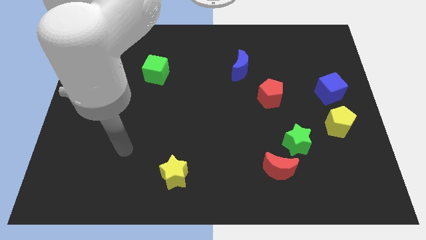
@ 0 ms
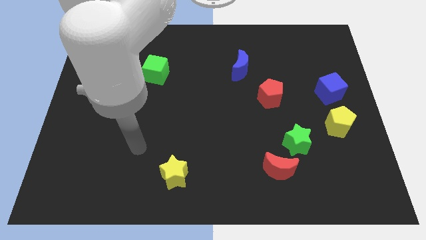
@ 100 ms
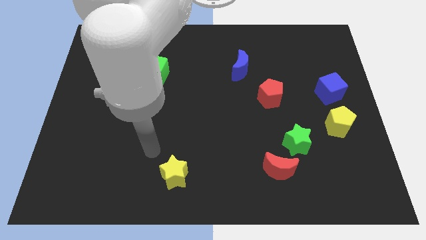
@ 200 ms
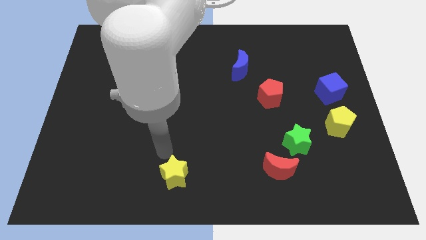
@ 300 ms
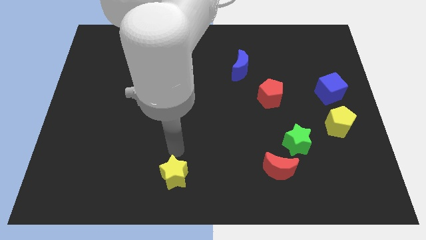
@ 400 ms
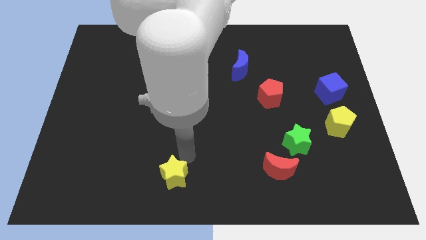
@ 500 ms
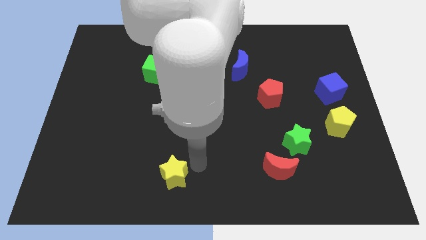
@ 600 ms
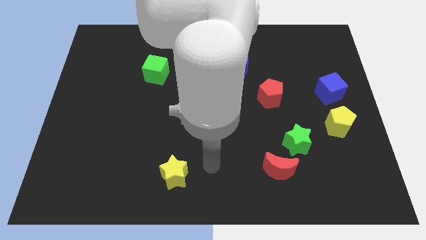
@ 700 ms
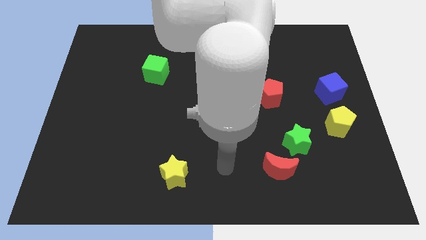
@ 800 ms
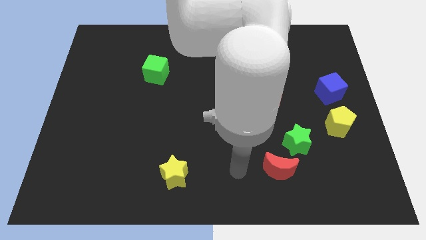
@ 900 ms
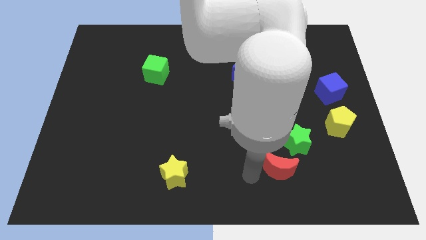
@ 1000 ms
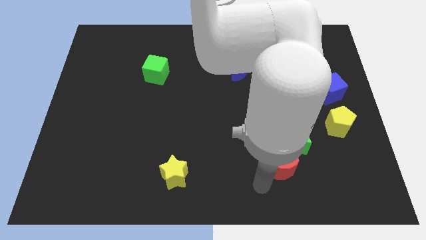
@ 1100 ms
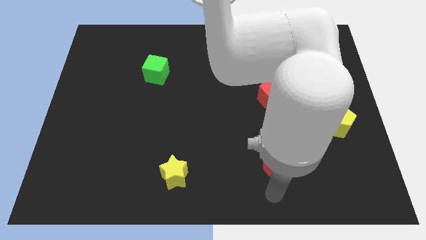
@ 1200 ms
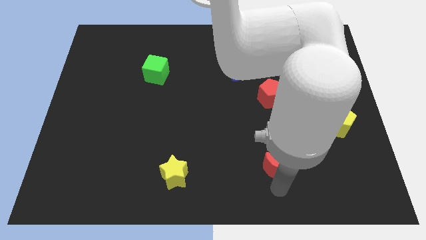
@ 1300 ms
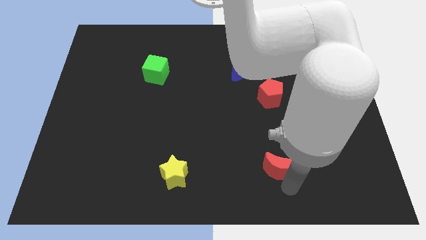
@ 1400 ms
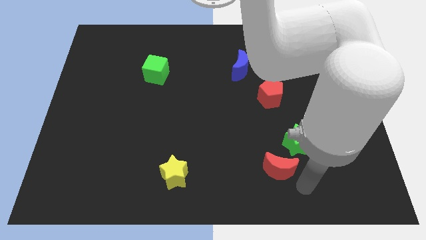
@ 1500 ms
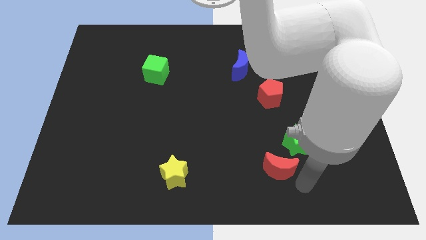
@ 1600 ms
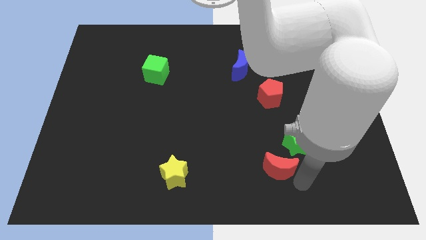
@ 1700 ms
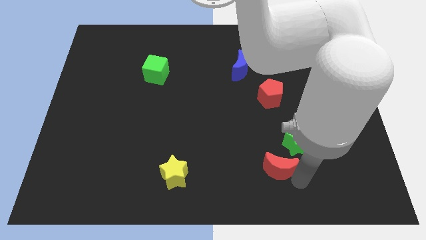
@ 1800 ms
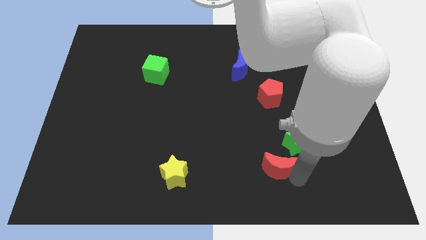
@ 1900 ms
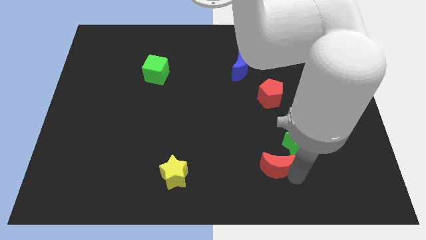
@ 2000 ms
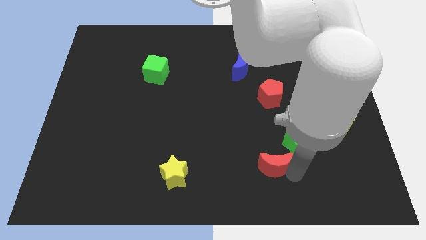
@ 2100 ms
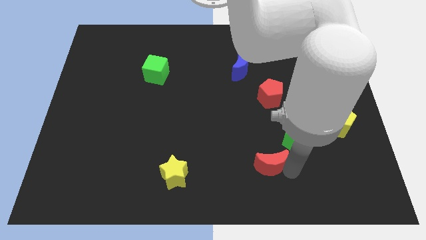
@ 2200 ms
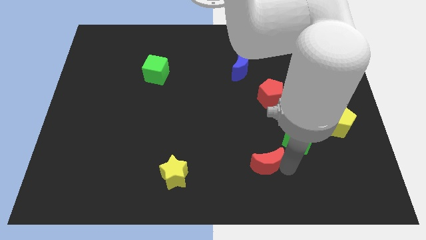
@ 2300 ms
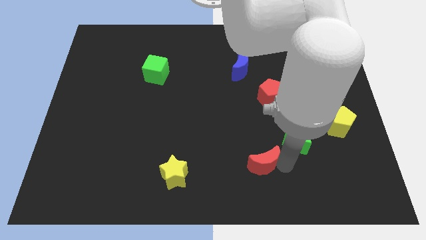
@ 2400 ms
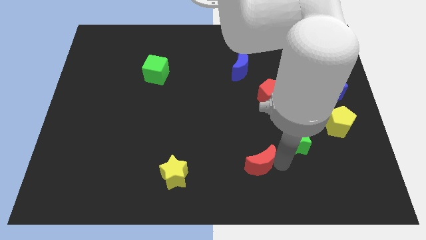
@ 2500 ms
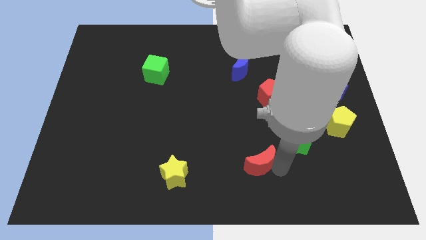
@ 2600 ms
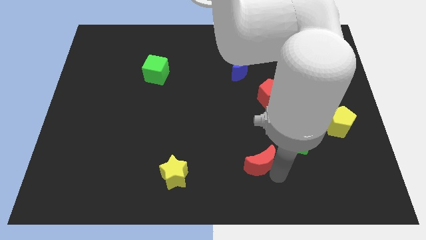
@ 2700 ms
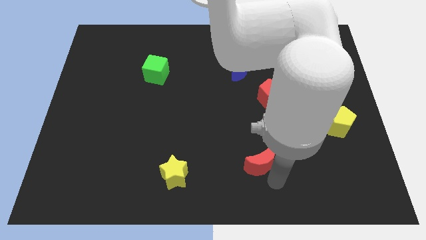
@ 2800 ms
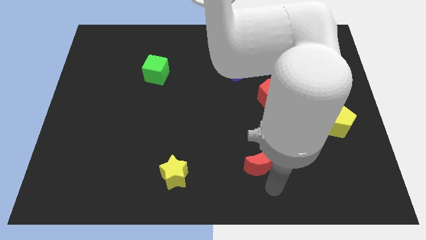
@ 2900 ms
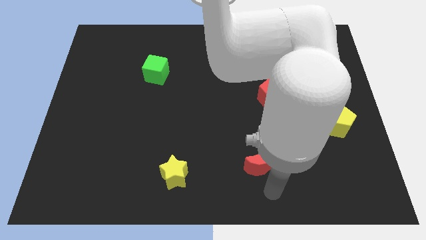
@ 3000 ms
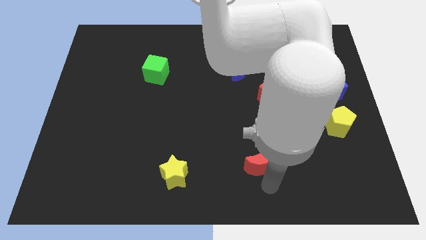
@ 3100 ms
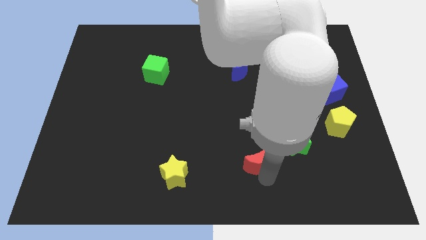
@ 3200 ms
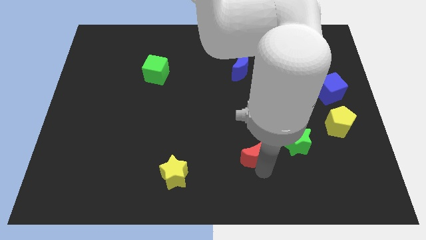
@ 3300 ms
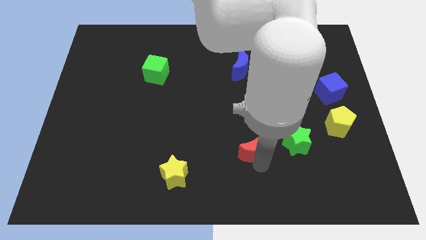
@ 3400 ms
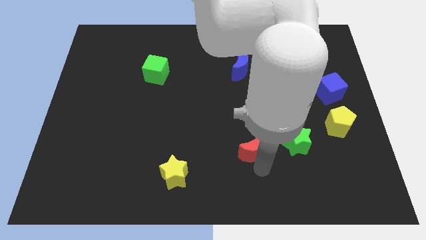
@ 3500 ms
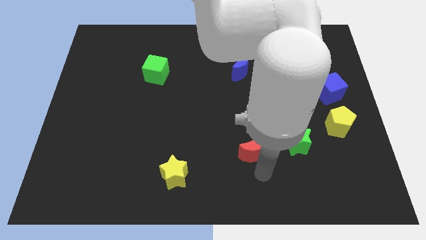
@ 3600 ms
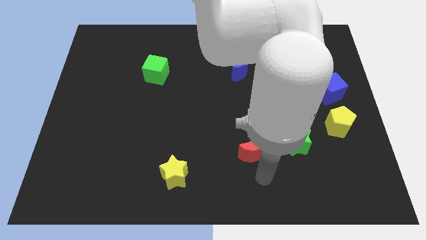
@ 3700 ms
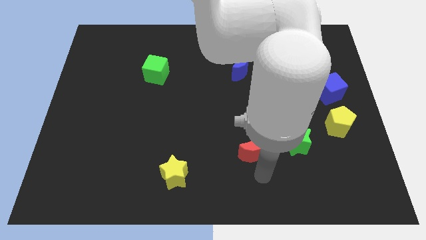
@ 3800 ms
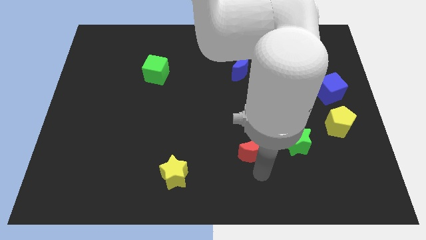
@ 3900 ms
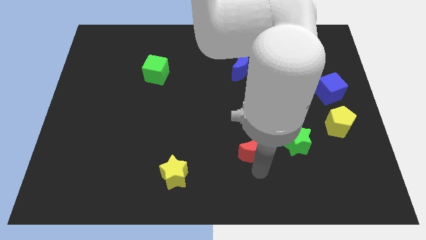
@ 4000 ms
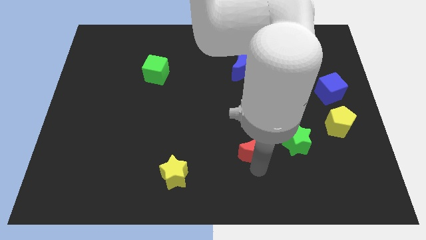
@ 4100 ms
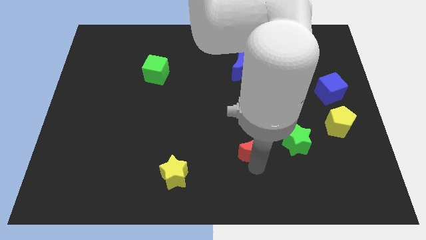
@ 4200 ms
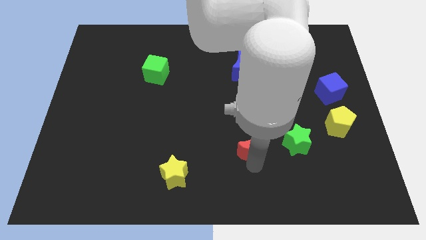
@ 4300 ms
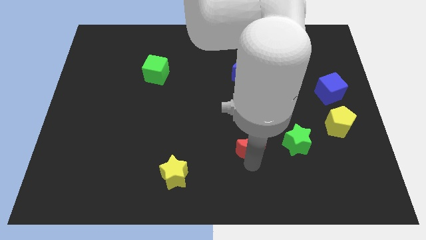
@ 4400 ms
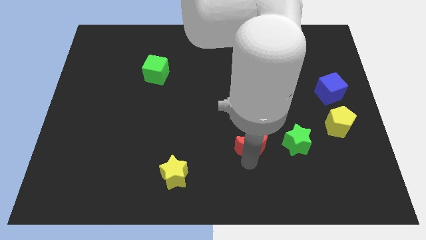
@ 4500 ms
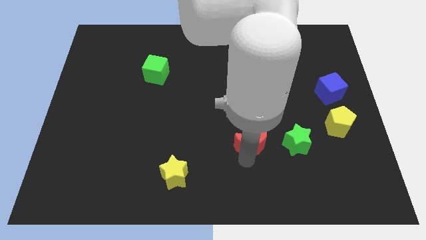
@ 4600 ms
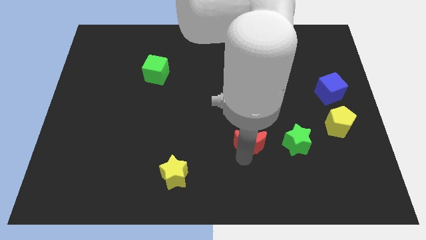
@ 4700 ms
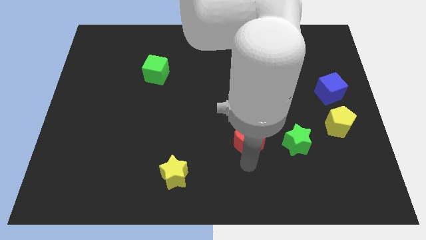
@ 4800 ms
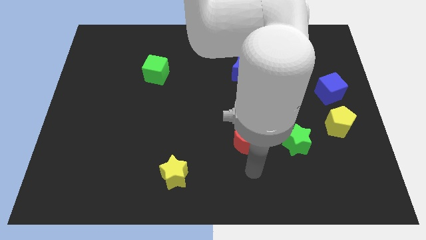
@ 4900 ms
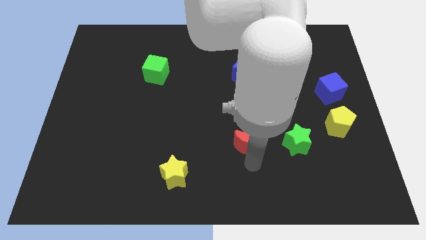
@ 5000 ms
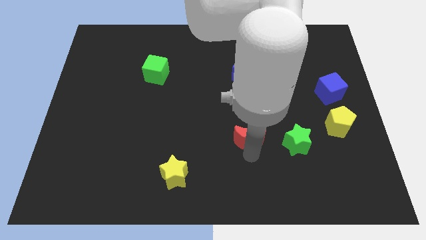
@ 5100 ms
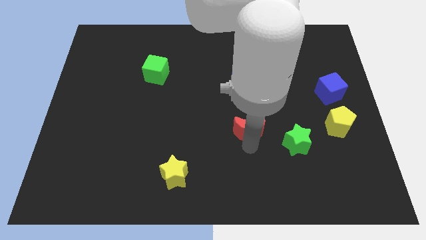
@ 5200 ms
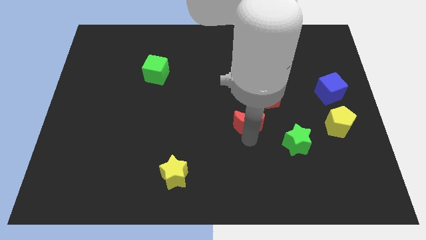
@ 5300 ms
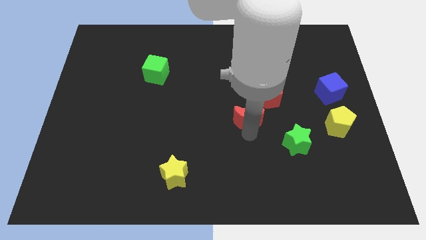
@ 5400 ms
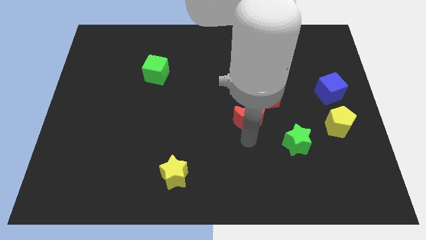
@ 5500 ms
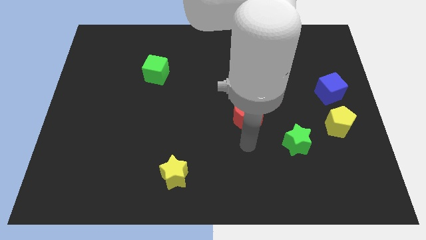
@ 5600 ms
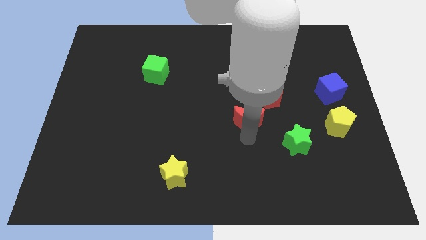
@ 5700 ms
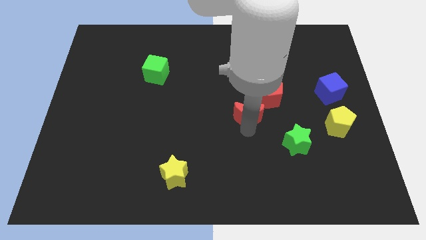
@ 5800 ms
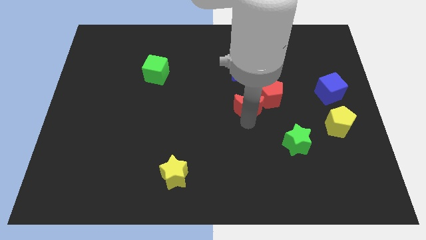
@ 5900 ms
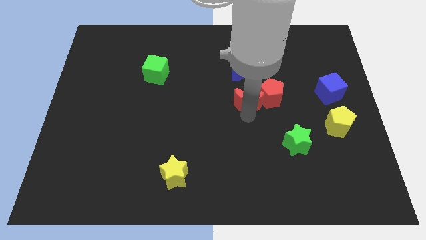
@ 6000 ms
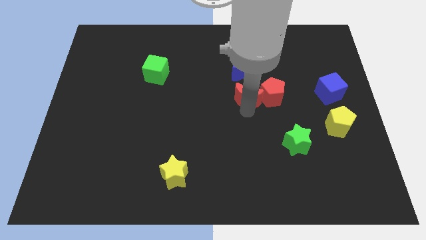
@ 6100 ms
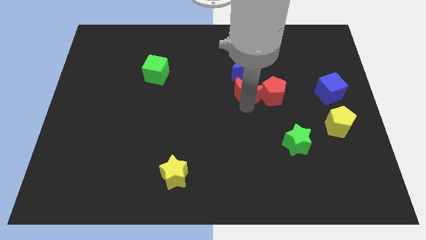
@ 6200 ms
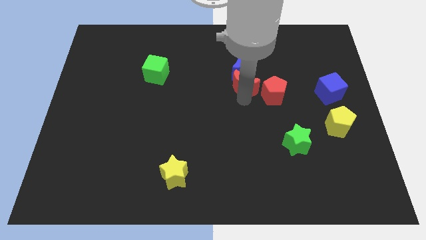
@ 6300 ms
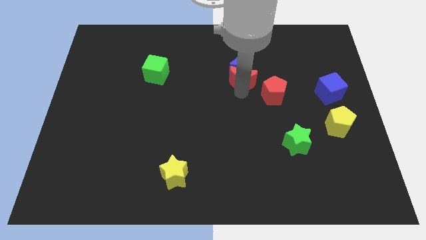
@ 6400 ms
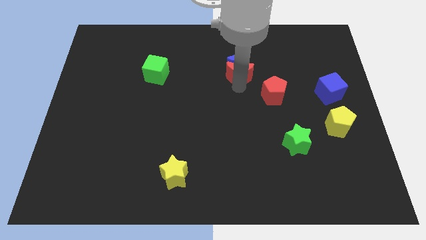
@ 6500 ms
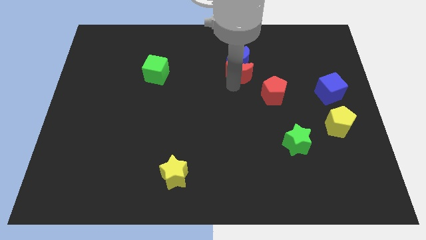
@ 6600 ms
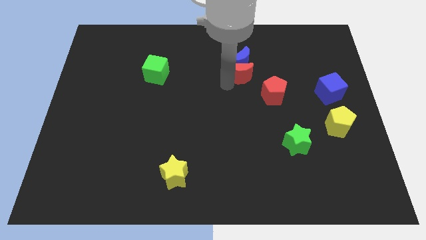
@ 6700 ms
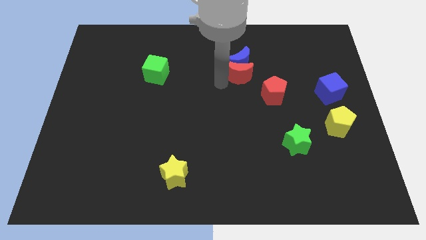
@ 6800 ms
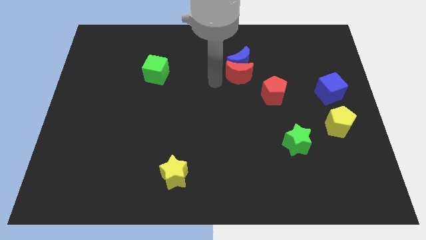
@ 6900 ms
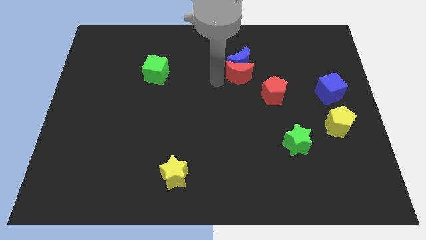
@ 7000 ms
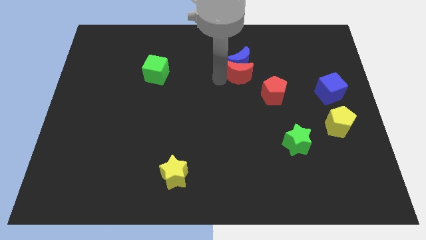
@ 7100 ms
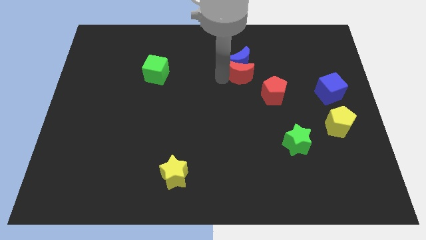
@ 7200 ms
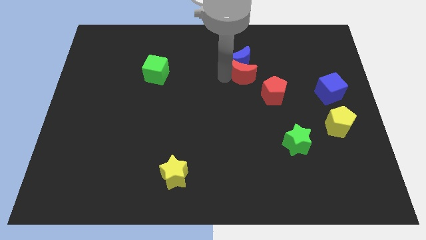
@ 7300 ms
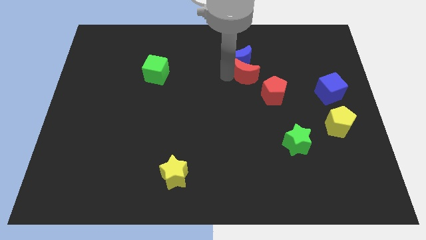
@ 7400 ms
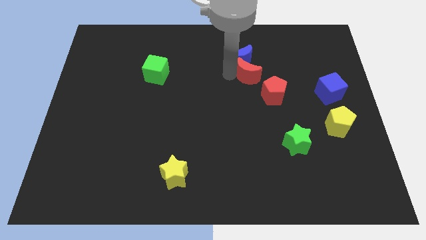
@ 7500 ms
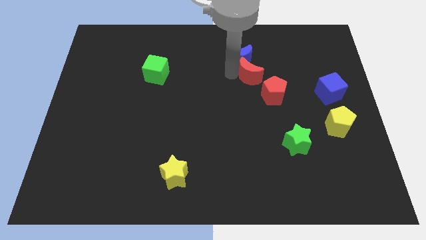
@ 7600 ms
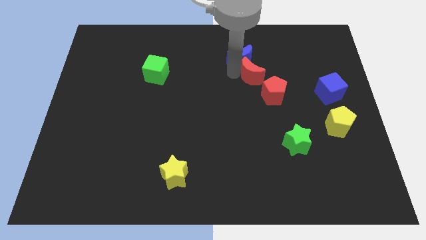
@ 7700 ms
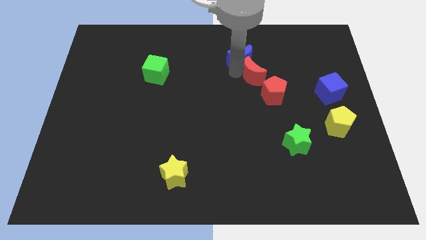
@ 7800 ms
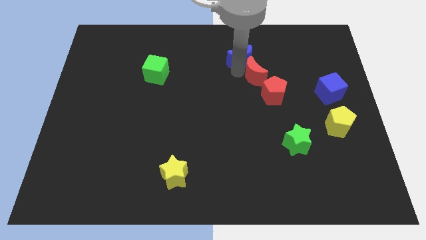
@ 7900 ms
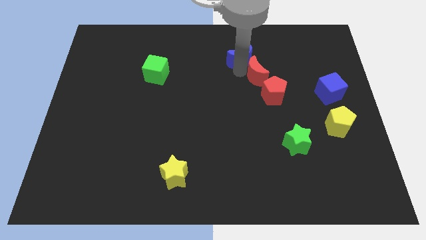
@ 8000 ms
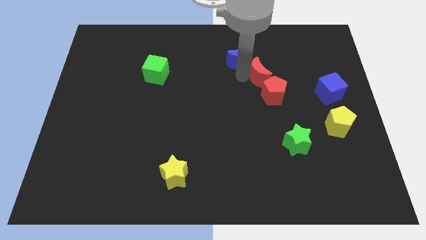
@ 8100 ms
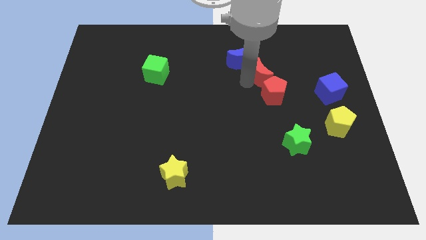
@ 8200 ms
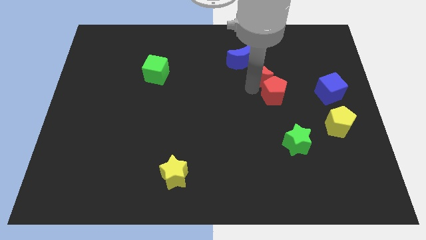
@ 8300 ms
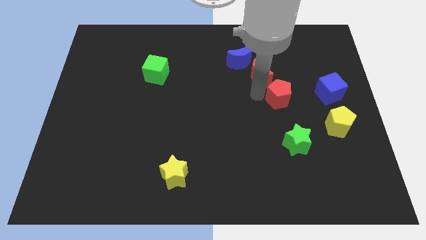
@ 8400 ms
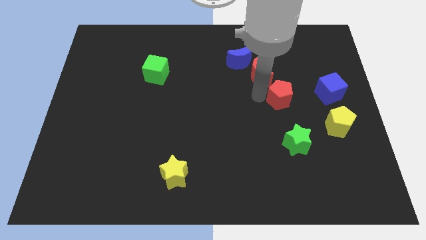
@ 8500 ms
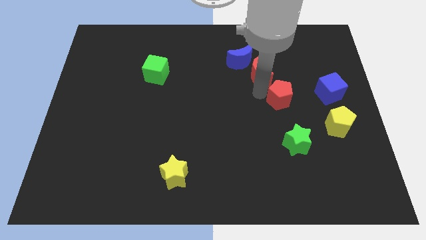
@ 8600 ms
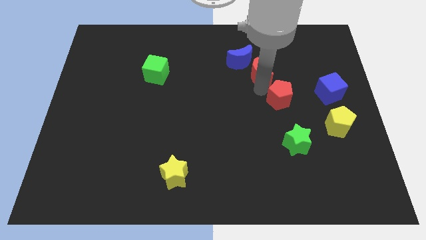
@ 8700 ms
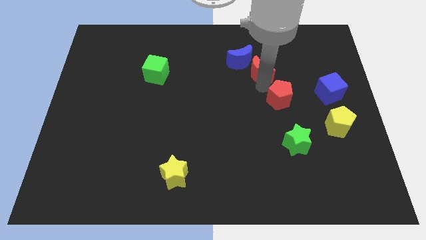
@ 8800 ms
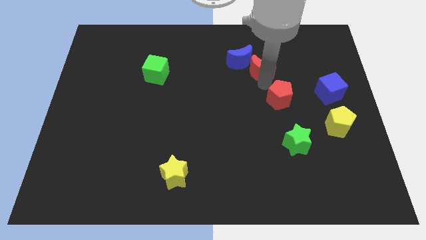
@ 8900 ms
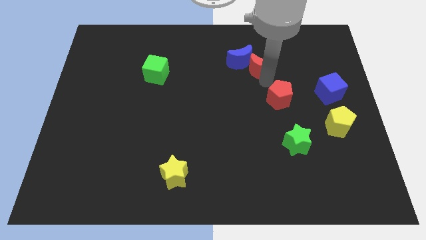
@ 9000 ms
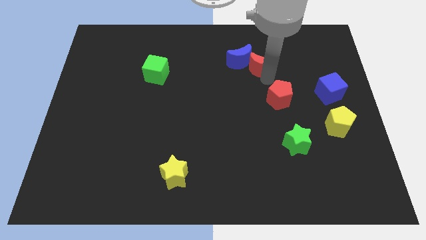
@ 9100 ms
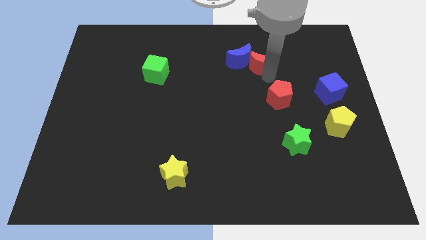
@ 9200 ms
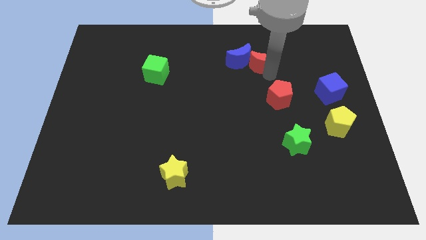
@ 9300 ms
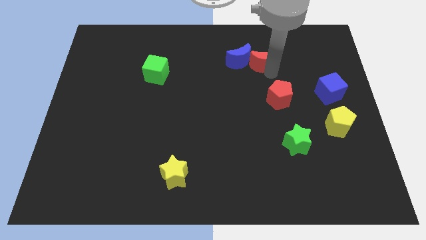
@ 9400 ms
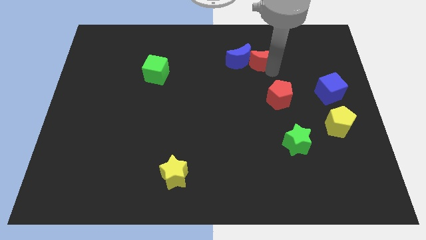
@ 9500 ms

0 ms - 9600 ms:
push the red moon to the top right side of the blue moon
